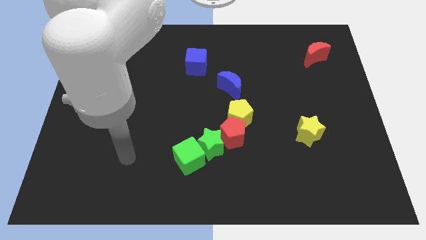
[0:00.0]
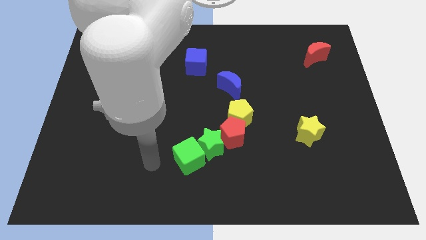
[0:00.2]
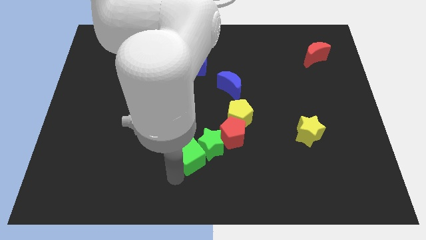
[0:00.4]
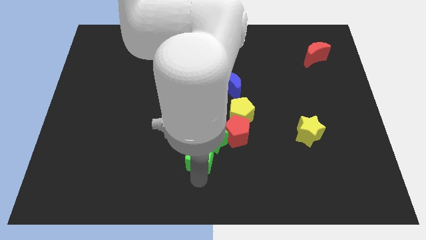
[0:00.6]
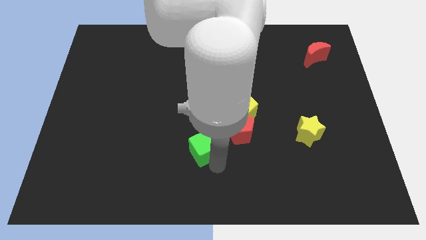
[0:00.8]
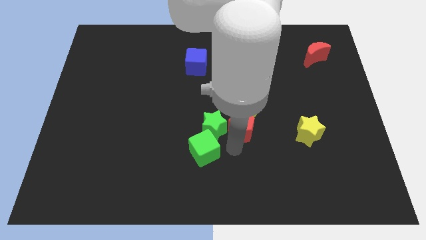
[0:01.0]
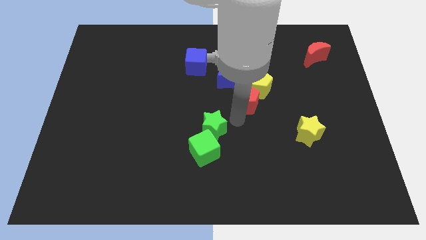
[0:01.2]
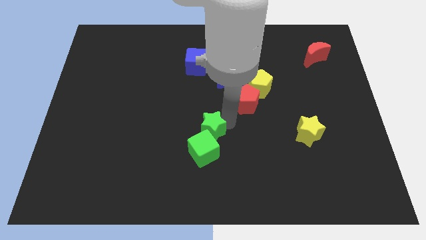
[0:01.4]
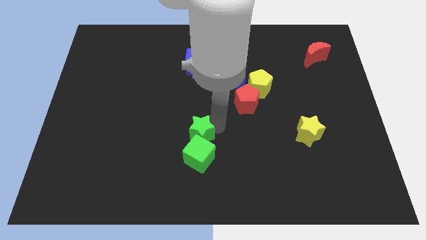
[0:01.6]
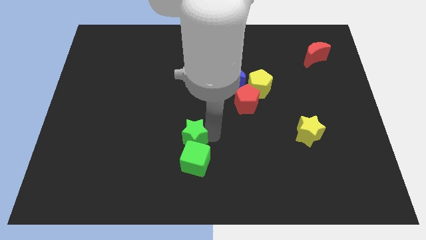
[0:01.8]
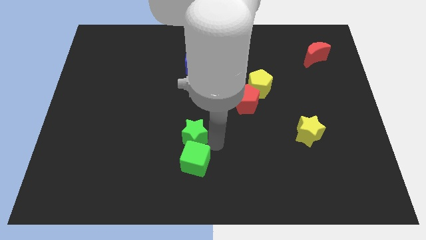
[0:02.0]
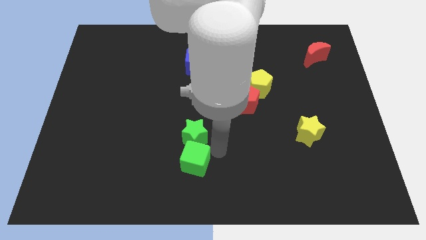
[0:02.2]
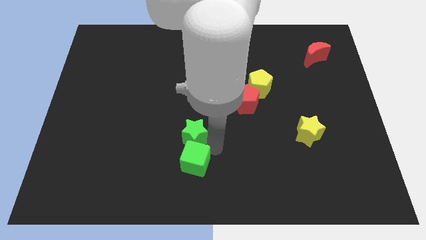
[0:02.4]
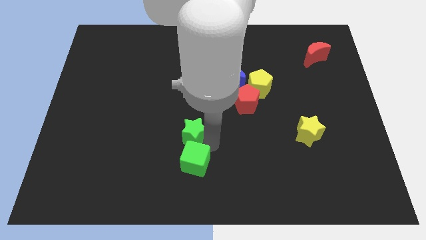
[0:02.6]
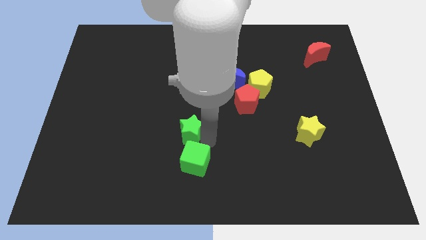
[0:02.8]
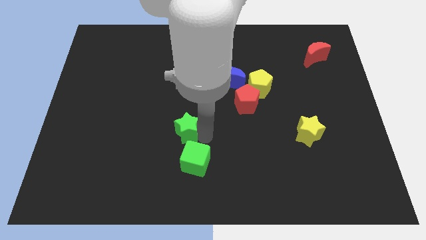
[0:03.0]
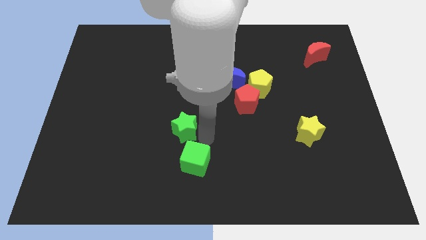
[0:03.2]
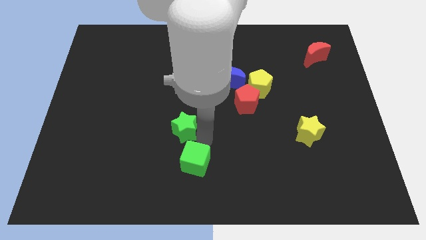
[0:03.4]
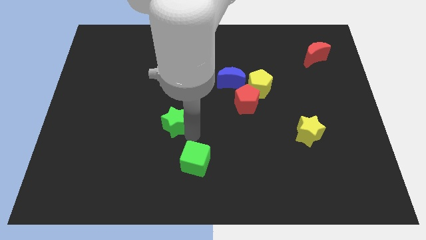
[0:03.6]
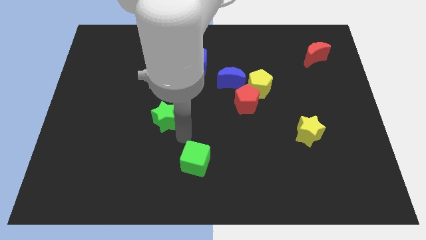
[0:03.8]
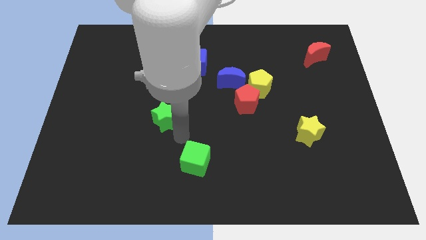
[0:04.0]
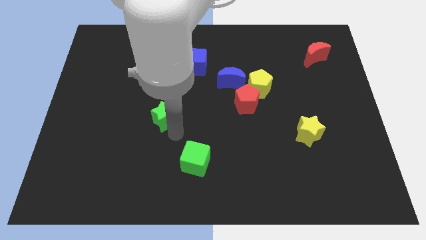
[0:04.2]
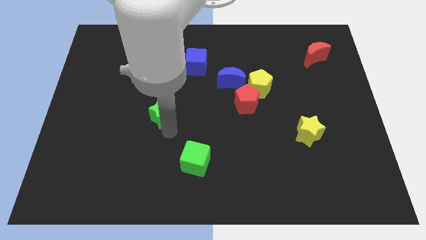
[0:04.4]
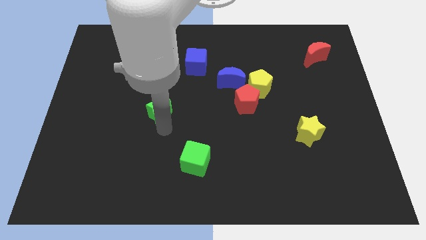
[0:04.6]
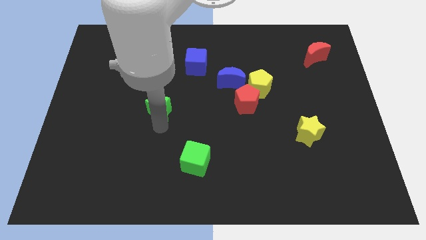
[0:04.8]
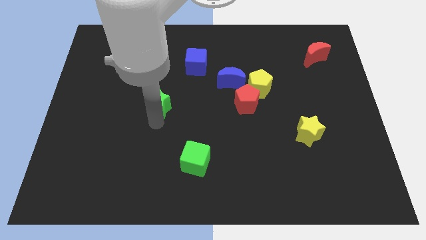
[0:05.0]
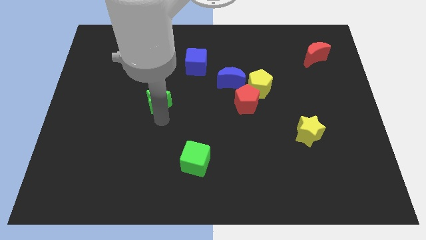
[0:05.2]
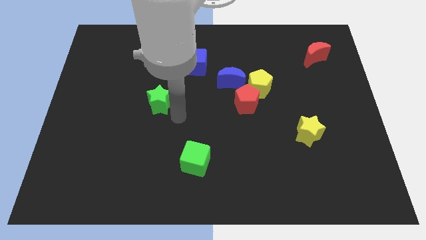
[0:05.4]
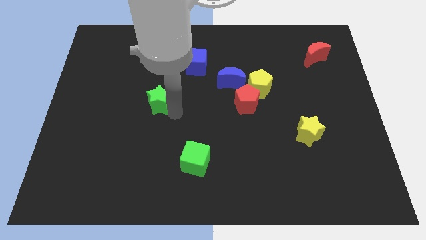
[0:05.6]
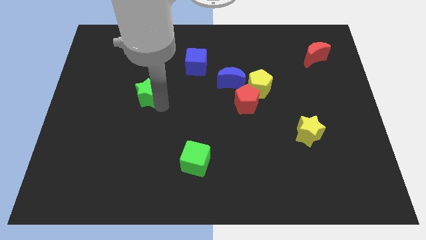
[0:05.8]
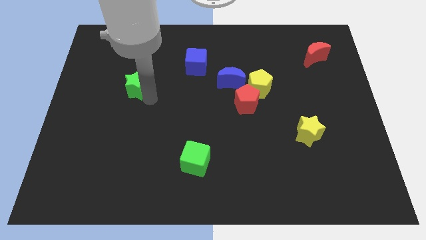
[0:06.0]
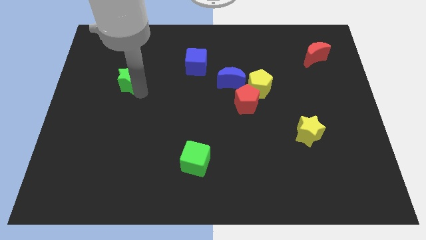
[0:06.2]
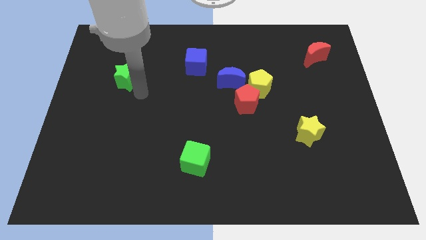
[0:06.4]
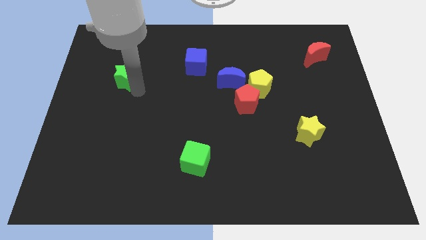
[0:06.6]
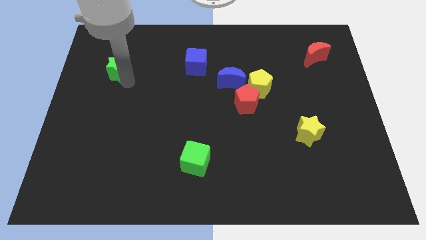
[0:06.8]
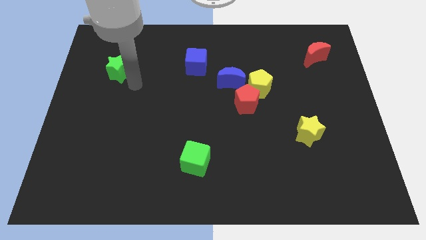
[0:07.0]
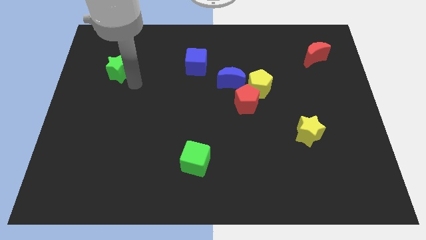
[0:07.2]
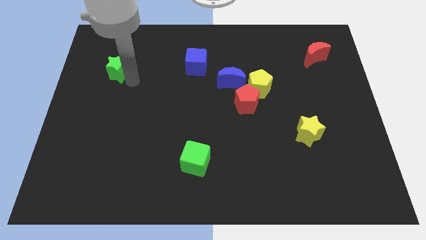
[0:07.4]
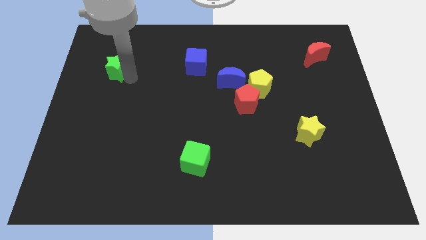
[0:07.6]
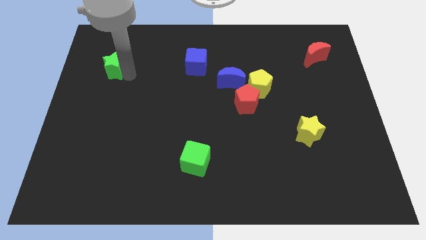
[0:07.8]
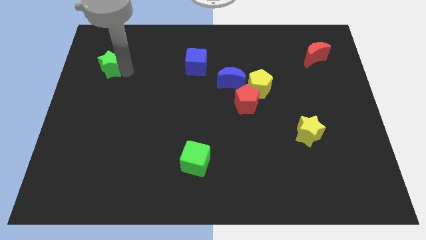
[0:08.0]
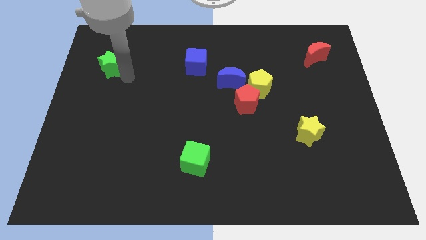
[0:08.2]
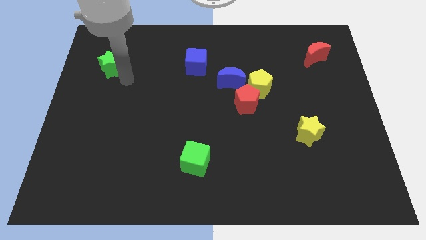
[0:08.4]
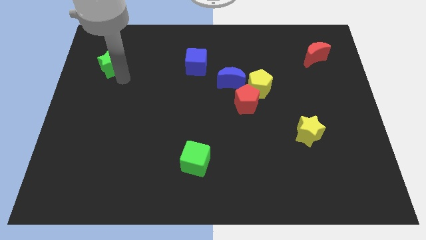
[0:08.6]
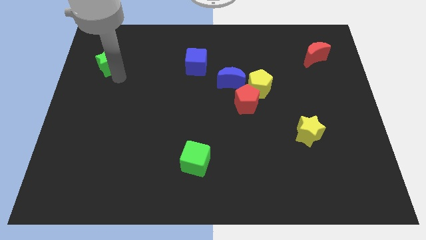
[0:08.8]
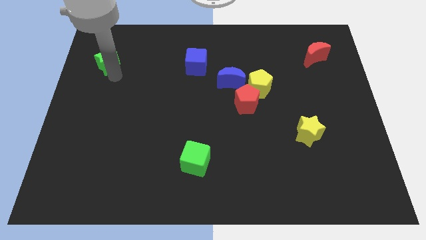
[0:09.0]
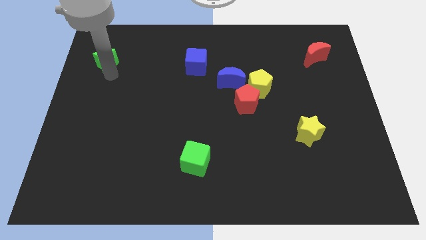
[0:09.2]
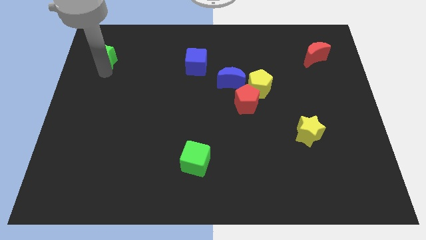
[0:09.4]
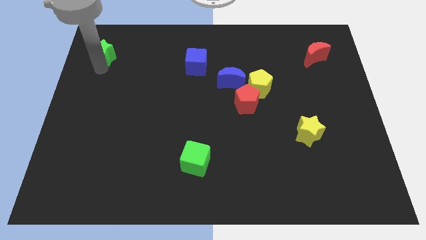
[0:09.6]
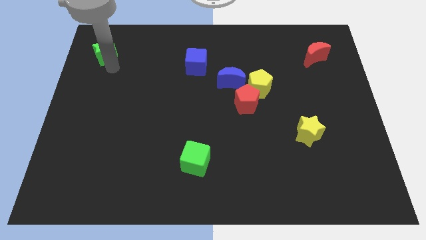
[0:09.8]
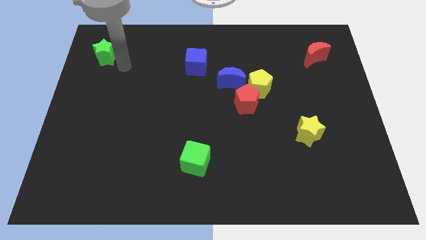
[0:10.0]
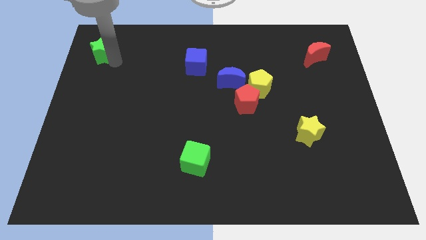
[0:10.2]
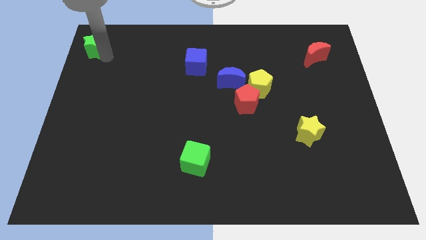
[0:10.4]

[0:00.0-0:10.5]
slide the green star to the top left of the board

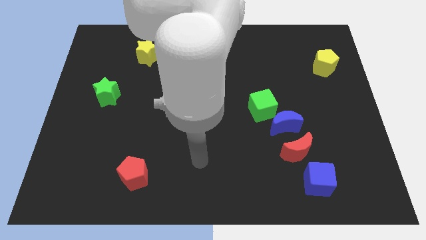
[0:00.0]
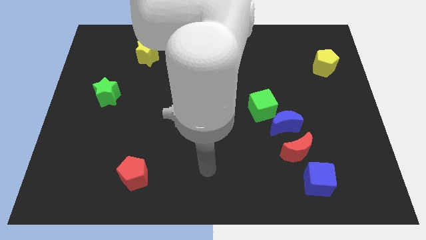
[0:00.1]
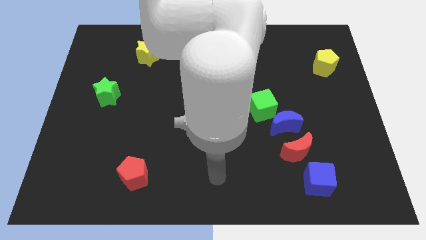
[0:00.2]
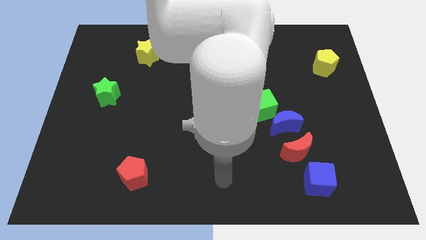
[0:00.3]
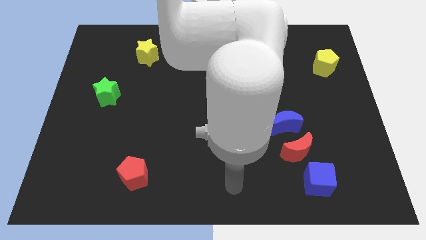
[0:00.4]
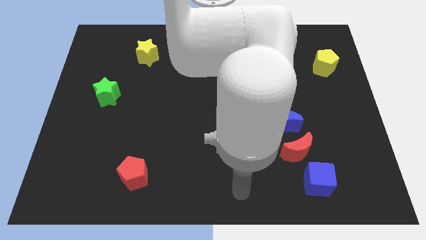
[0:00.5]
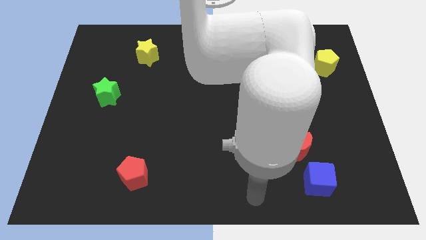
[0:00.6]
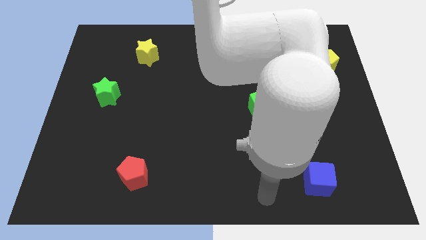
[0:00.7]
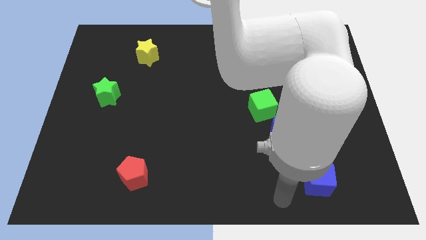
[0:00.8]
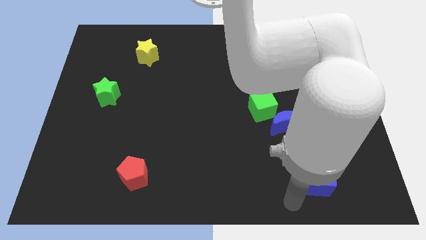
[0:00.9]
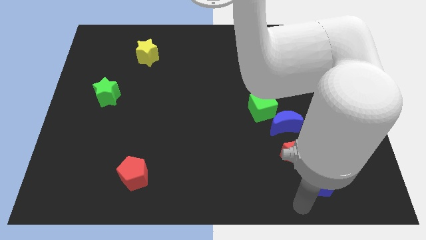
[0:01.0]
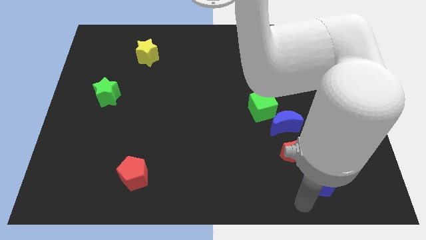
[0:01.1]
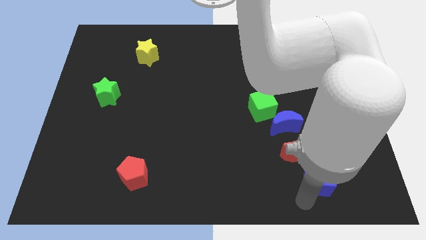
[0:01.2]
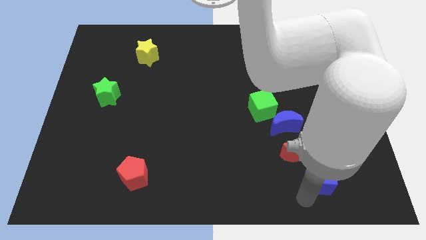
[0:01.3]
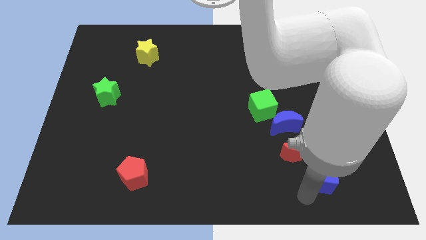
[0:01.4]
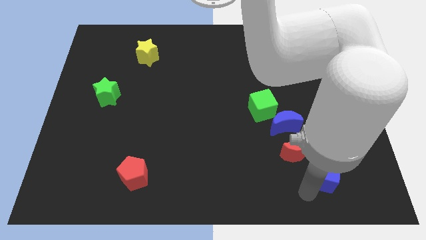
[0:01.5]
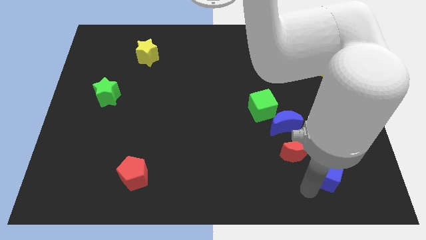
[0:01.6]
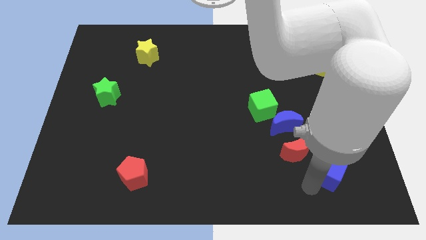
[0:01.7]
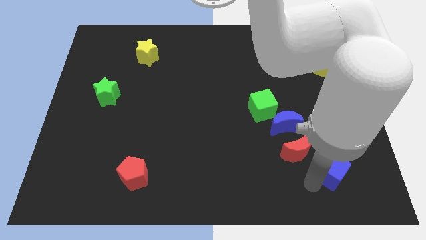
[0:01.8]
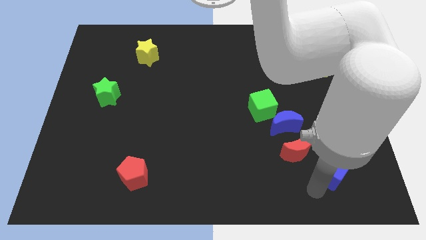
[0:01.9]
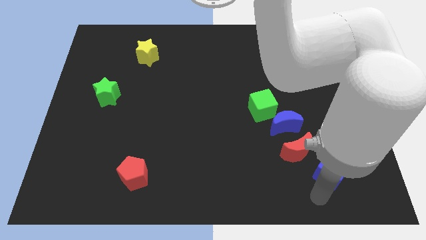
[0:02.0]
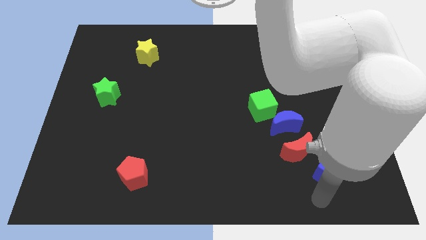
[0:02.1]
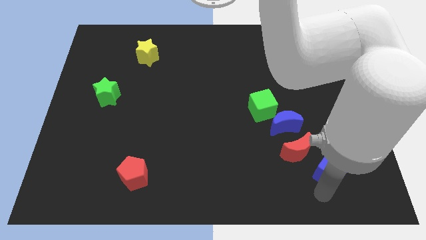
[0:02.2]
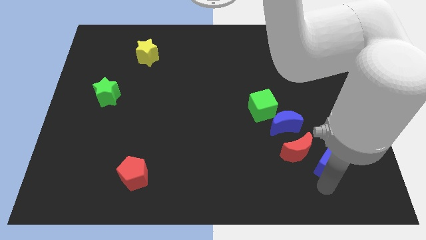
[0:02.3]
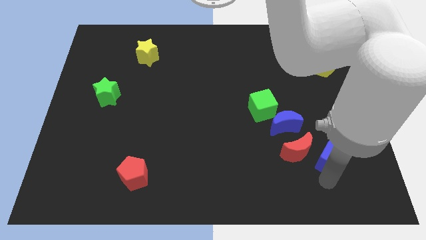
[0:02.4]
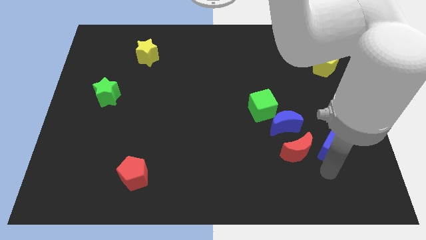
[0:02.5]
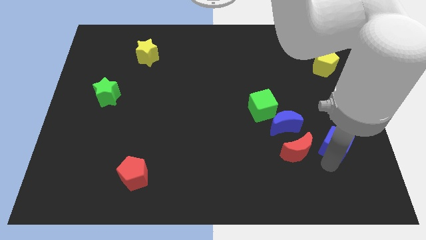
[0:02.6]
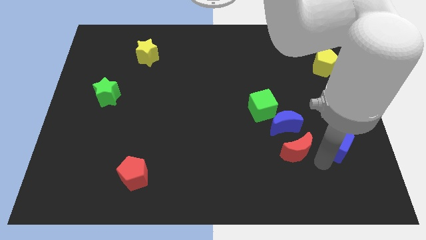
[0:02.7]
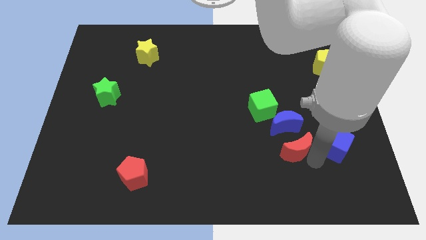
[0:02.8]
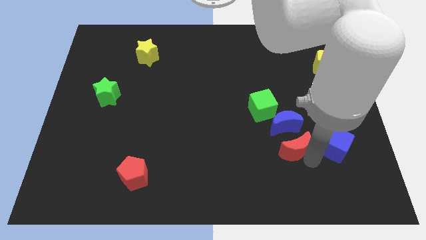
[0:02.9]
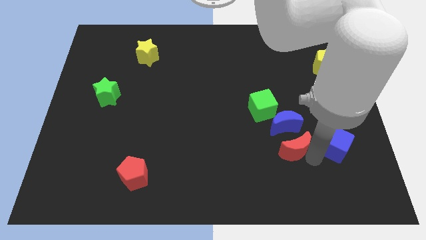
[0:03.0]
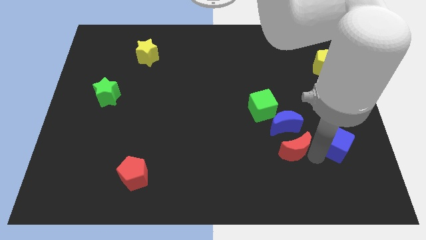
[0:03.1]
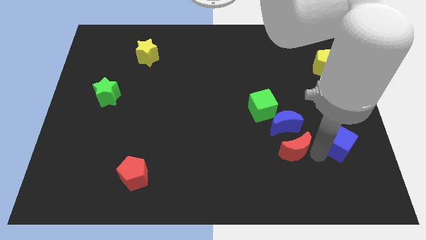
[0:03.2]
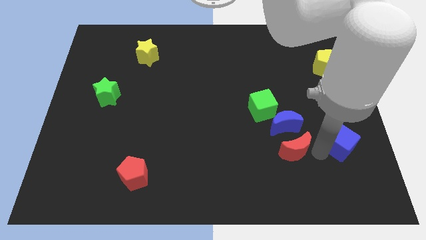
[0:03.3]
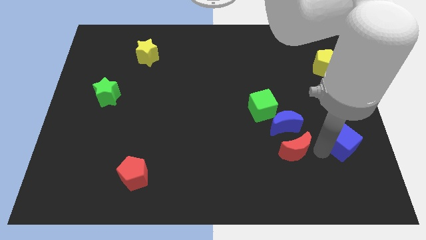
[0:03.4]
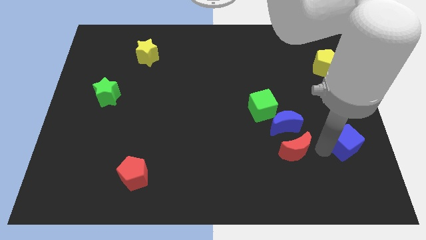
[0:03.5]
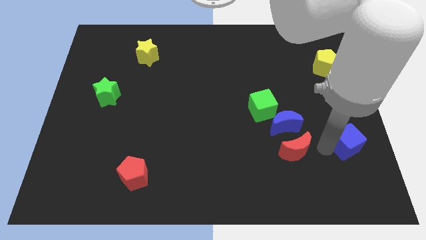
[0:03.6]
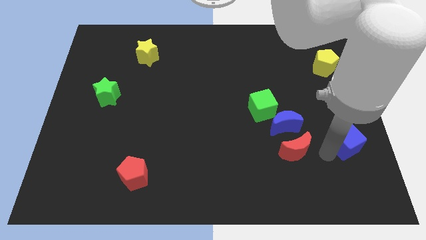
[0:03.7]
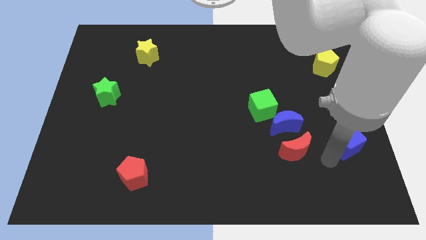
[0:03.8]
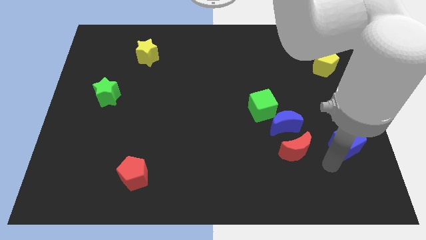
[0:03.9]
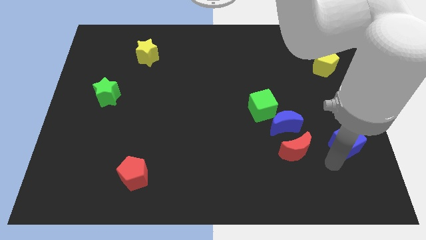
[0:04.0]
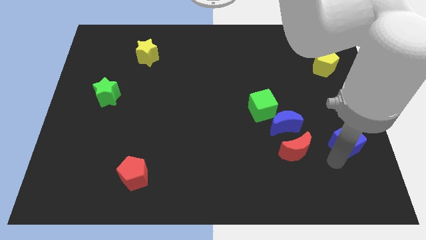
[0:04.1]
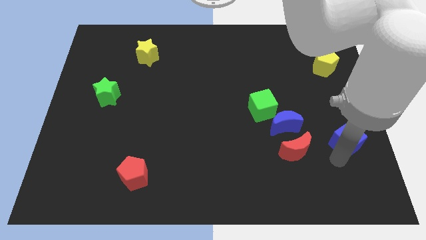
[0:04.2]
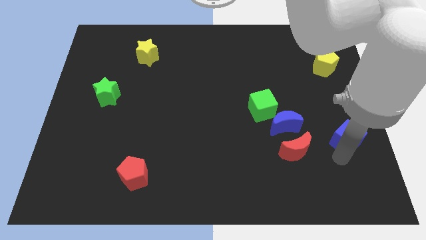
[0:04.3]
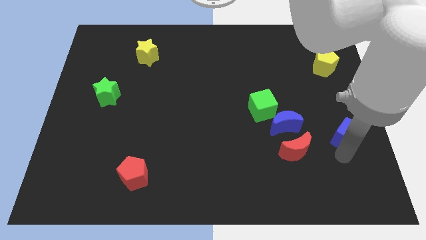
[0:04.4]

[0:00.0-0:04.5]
put the blue cube to the right side
